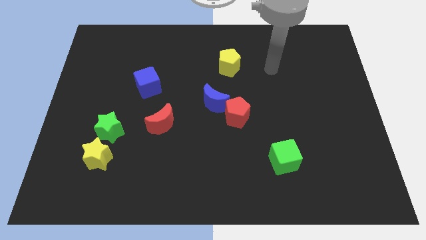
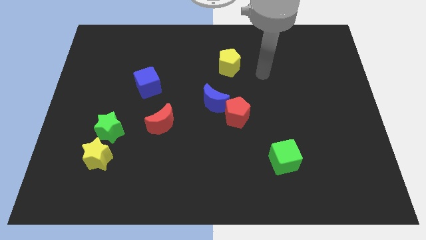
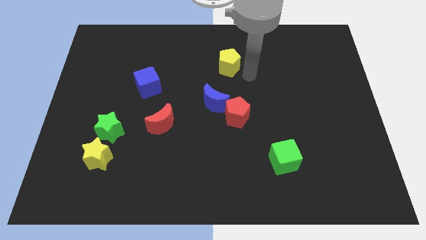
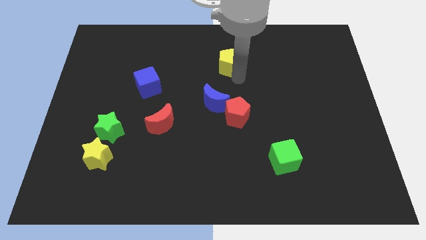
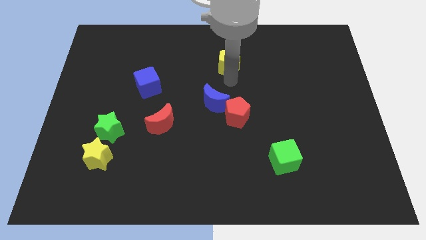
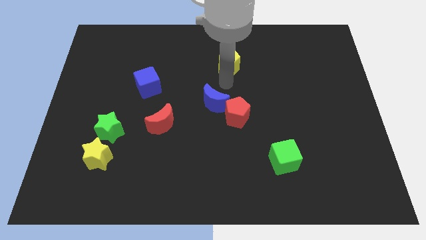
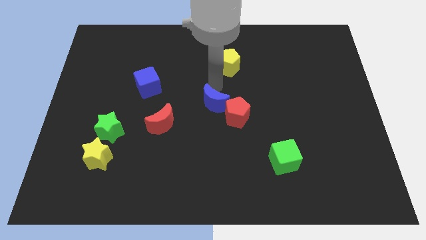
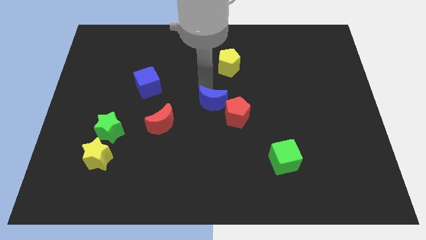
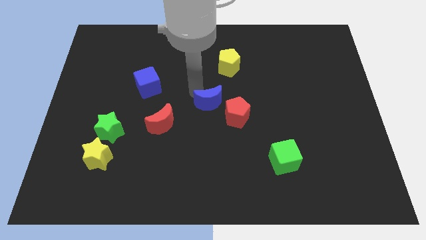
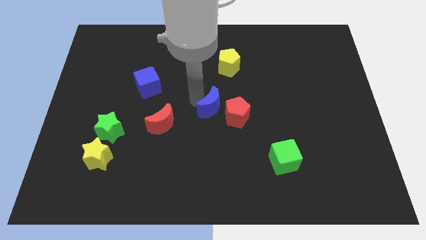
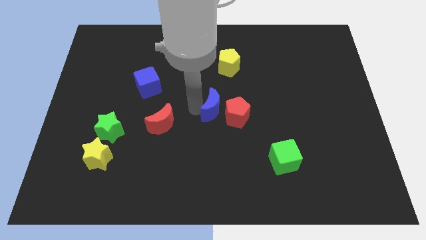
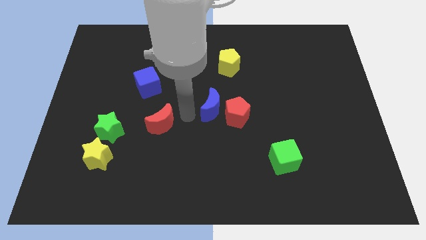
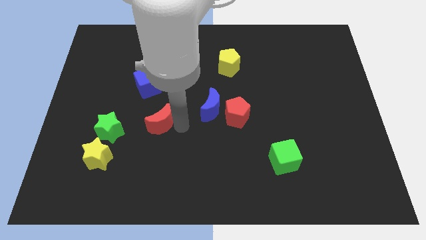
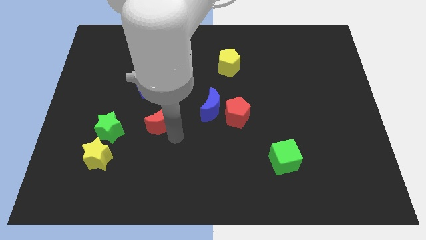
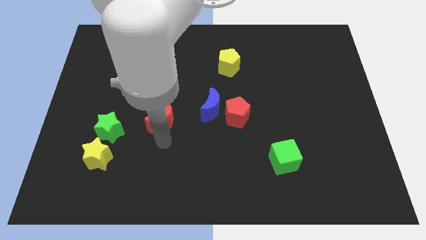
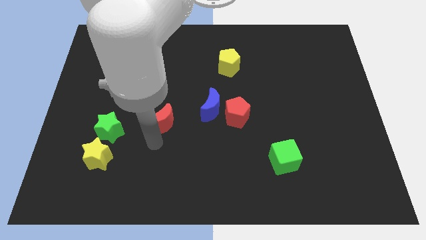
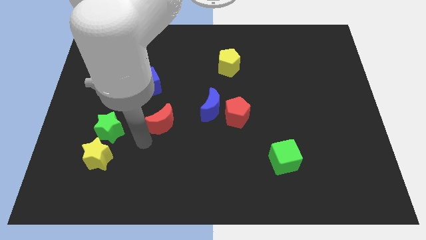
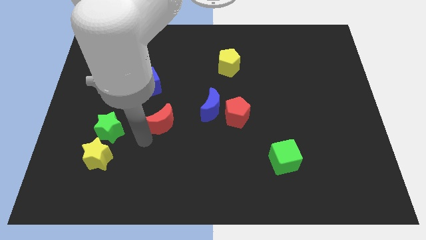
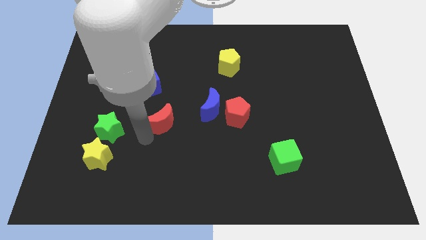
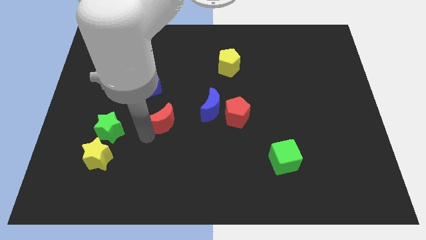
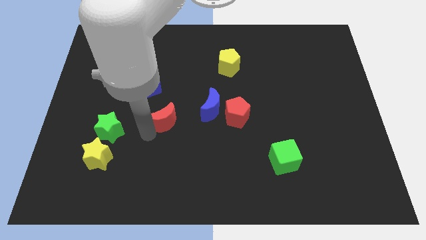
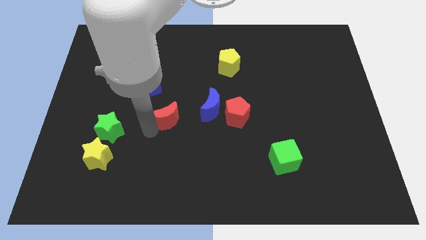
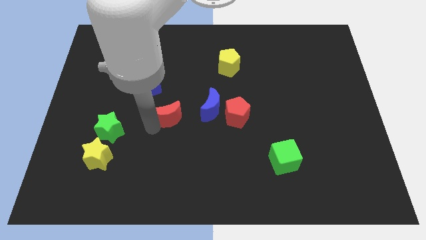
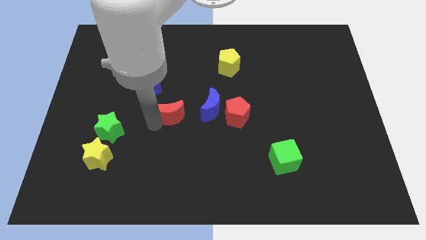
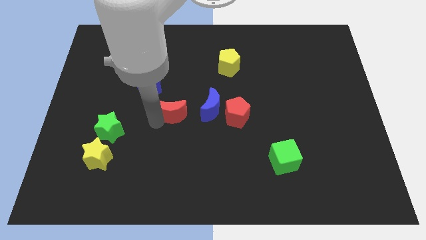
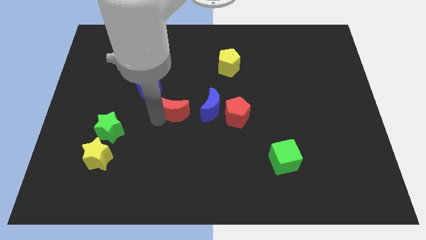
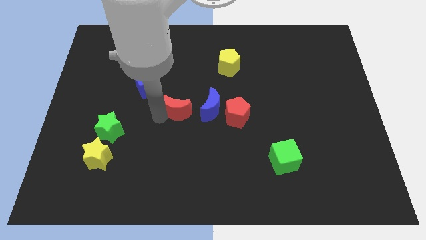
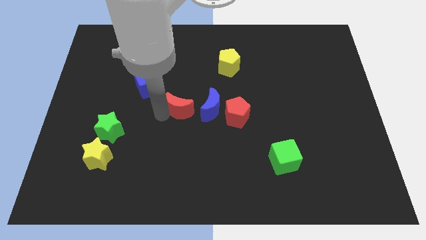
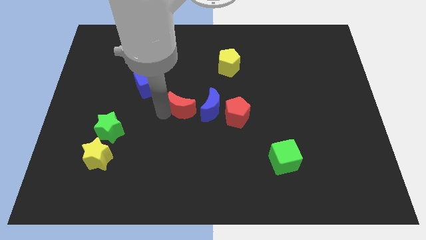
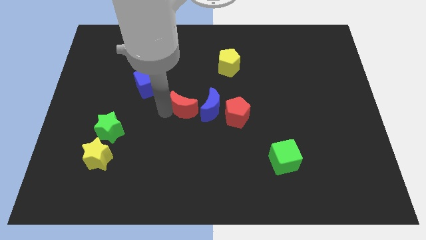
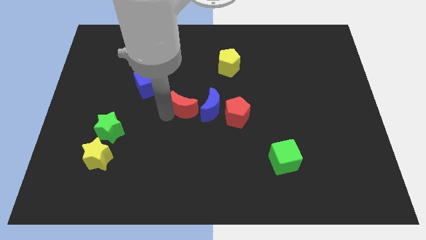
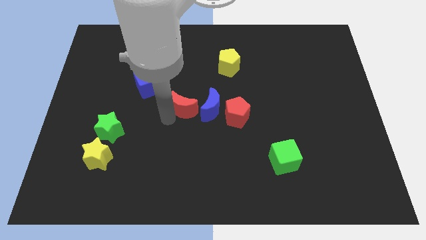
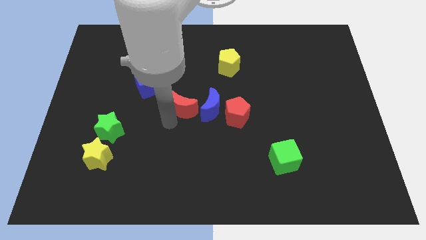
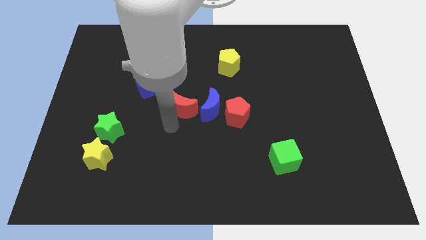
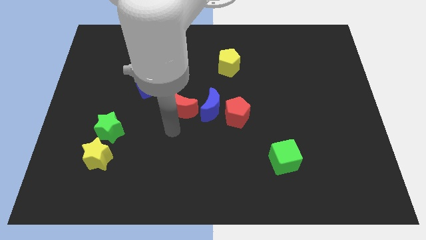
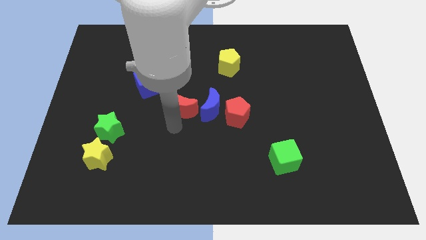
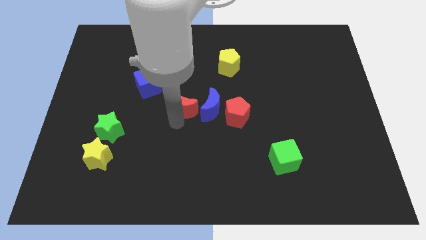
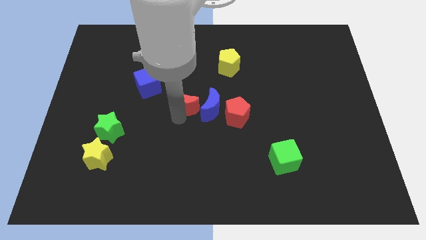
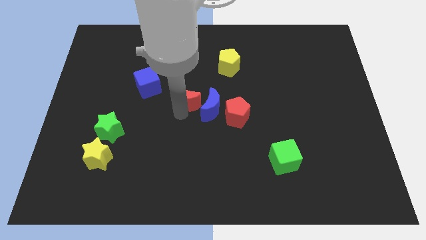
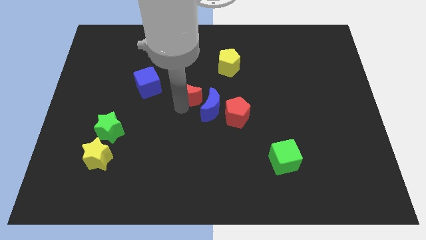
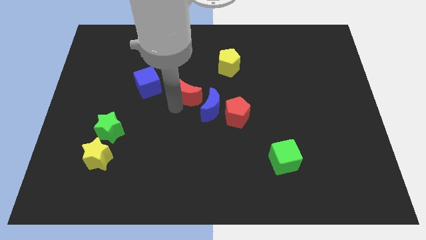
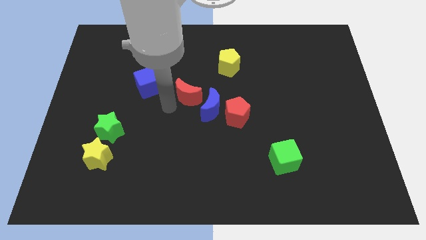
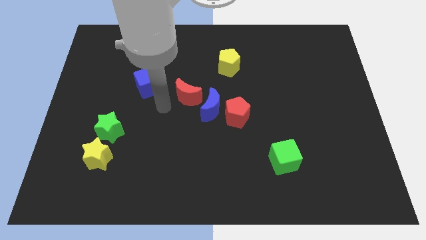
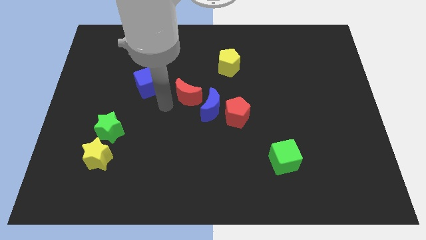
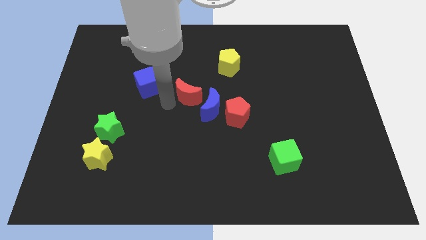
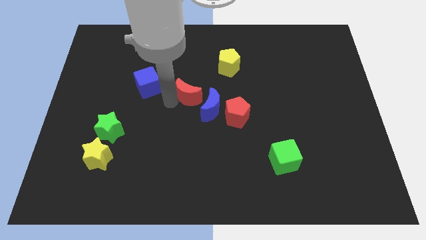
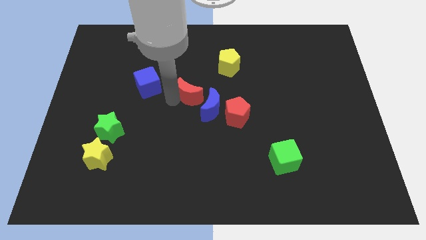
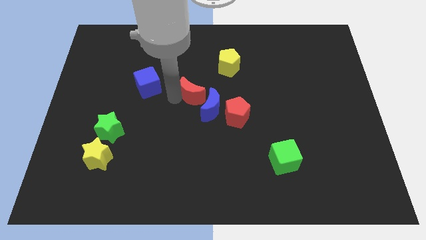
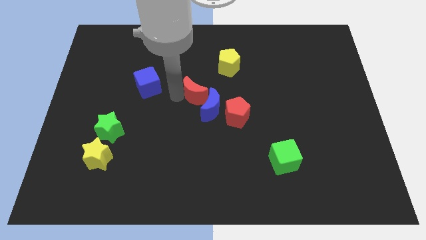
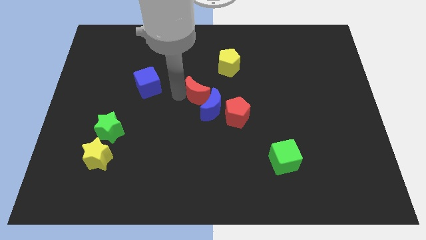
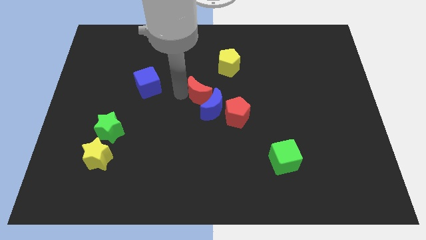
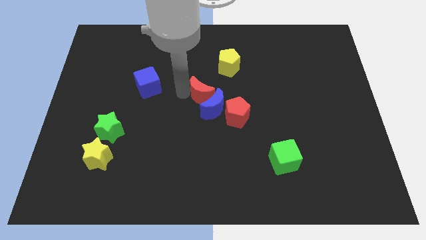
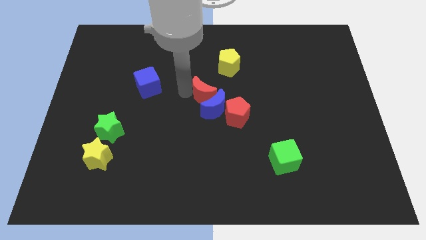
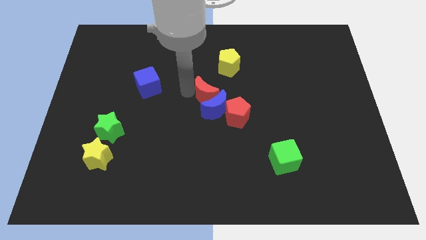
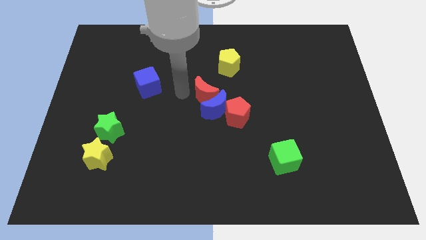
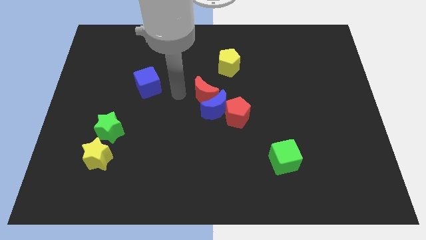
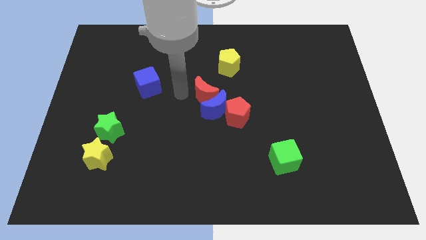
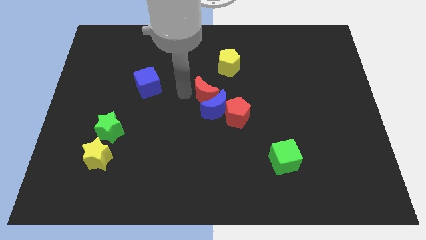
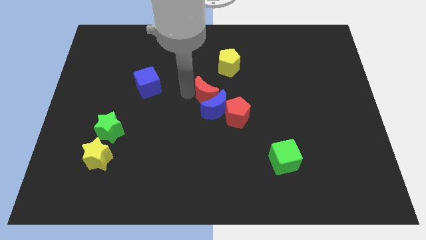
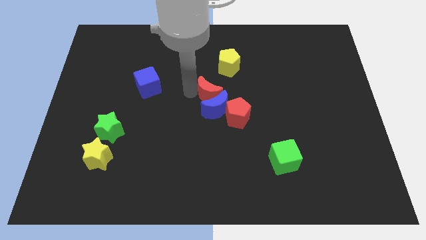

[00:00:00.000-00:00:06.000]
move the red moon to the bottom of the yellow pentagon

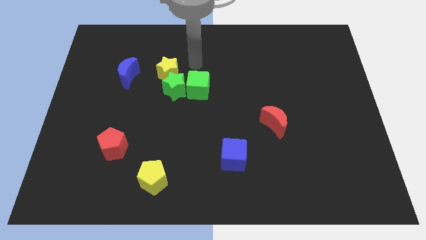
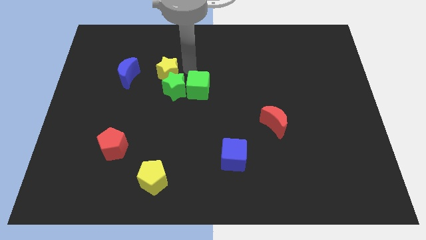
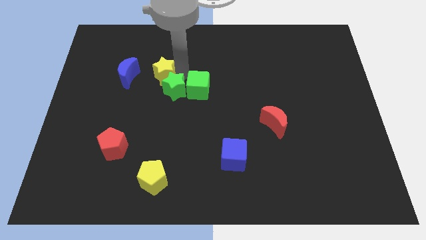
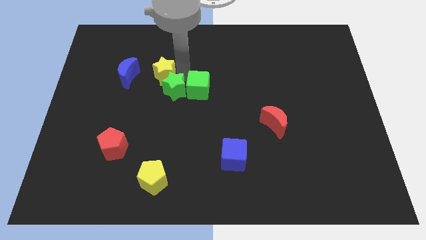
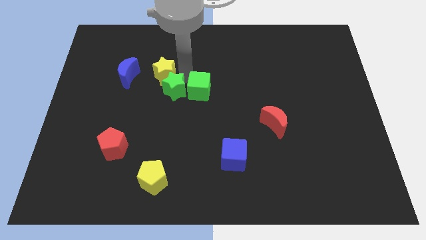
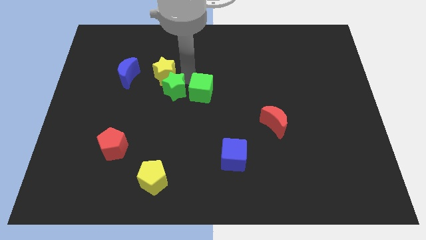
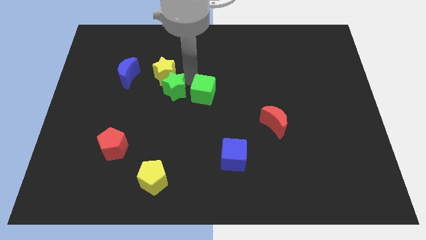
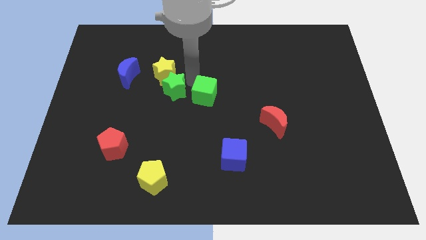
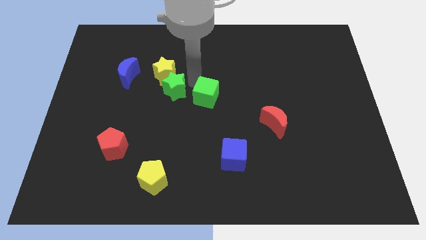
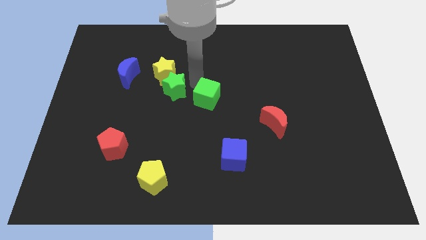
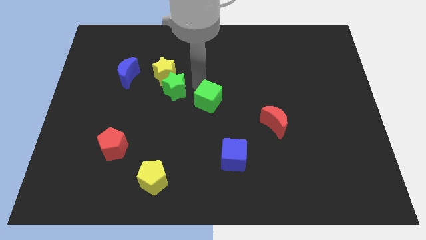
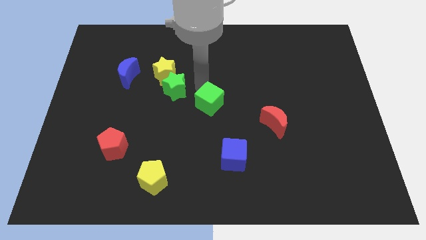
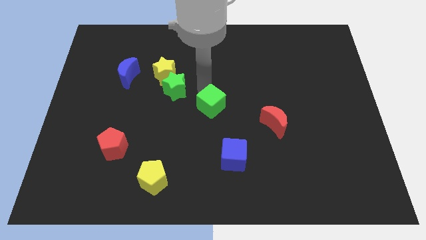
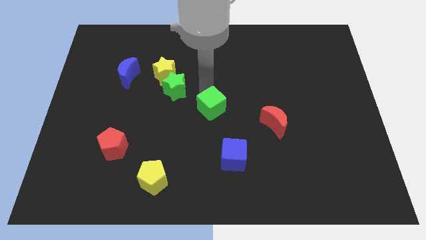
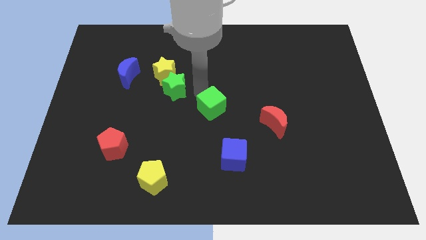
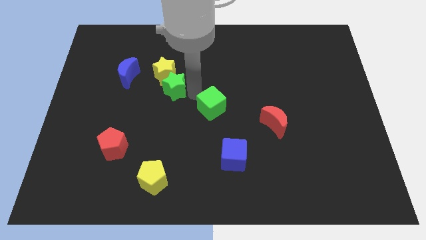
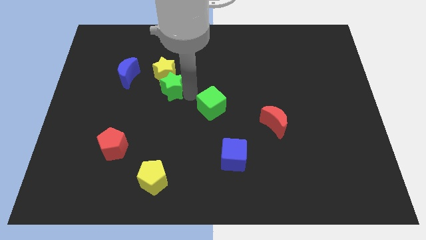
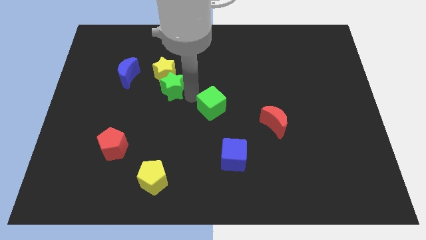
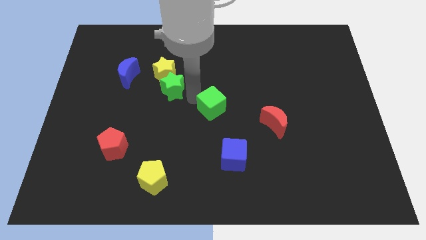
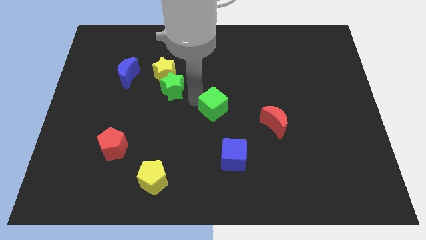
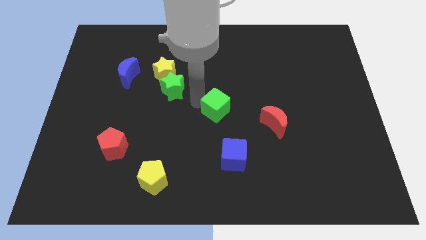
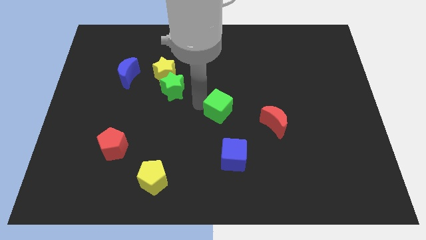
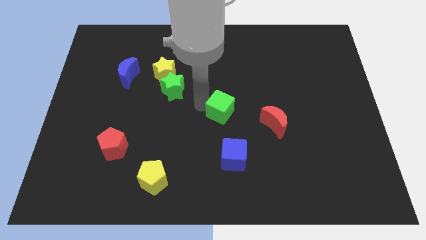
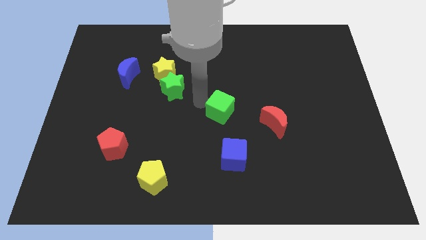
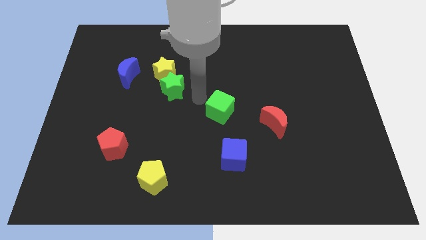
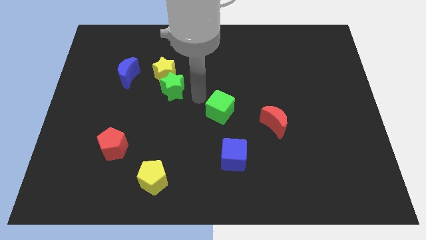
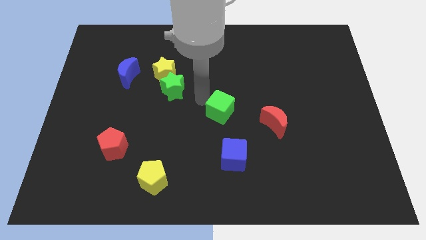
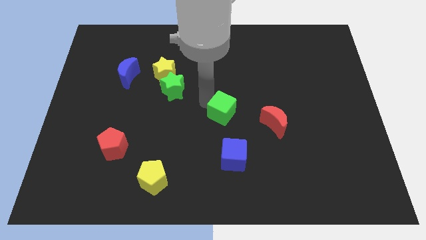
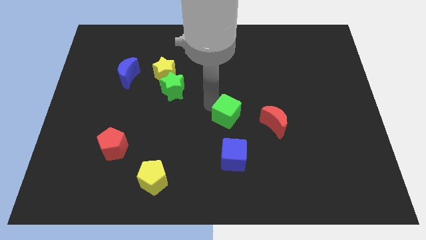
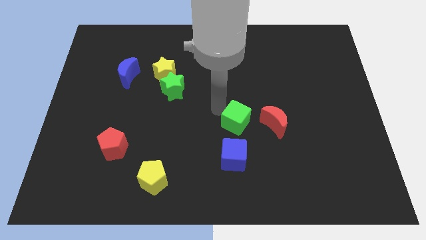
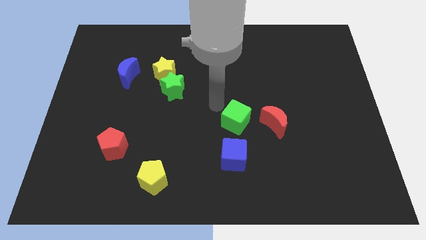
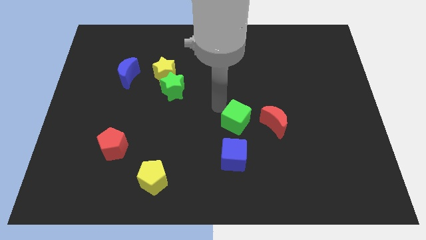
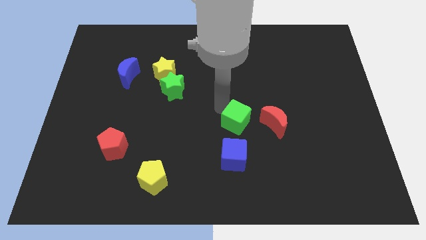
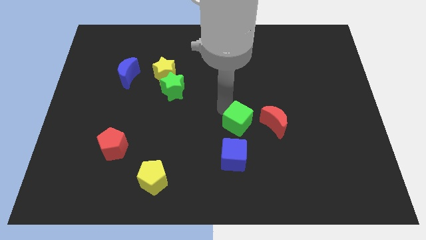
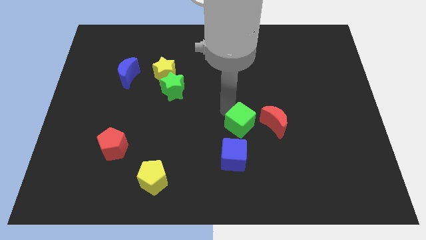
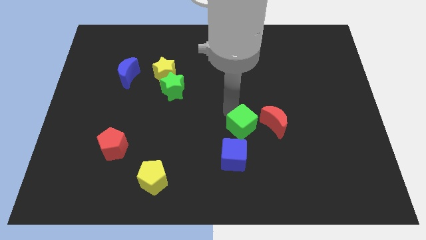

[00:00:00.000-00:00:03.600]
put the green cube diagonally up and to the right of the blue cube
